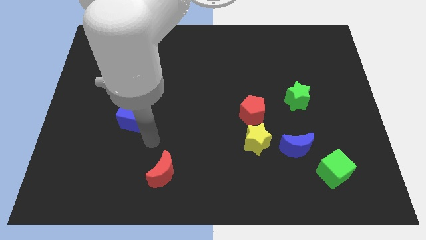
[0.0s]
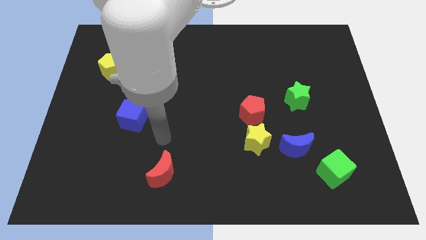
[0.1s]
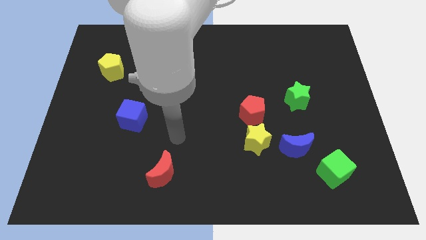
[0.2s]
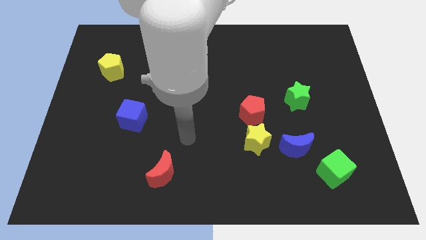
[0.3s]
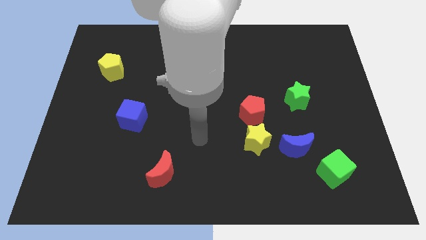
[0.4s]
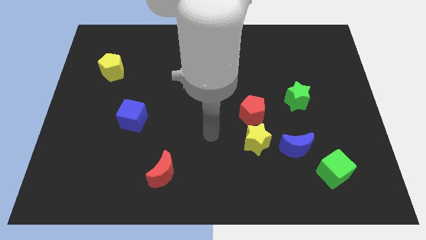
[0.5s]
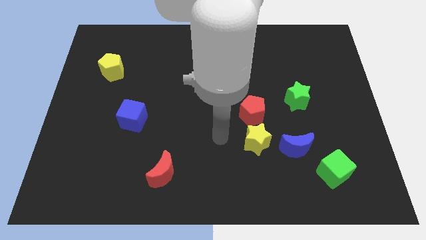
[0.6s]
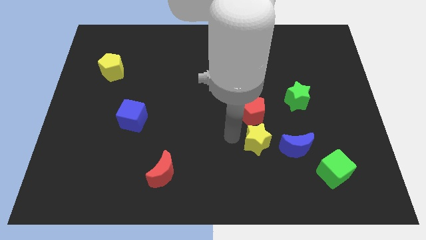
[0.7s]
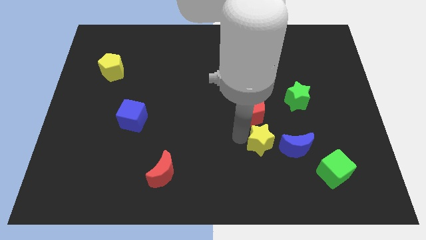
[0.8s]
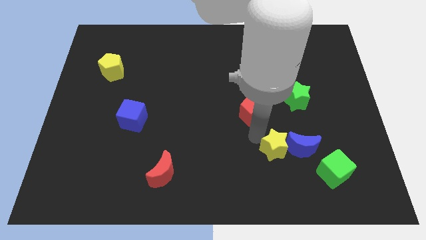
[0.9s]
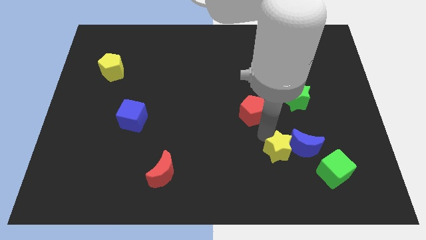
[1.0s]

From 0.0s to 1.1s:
move the red pentagon away from the yellow star

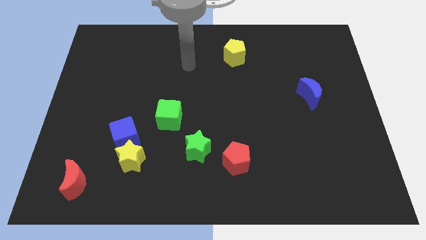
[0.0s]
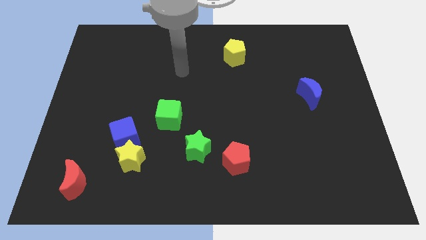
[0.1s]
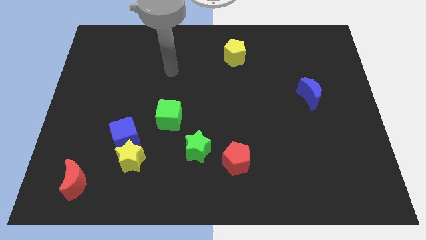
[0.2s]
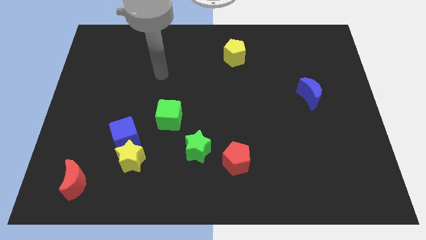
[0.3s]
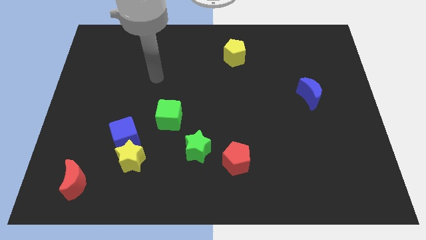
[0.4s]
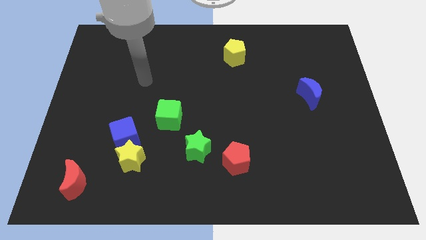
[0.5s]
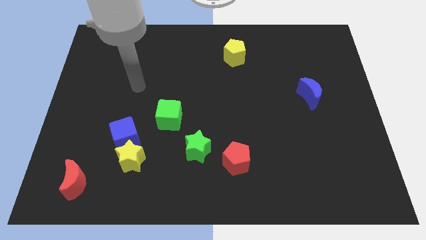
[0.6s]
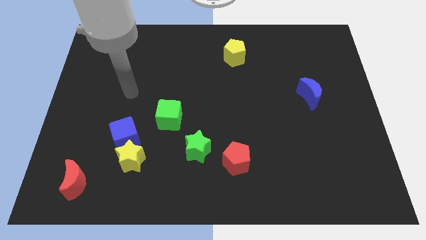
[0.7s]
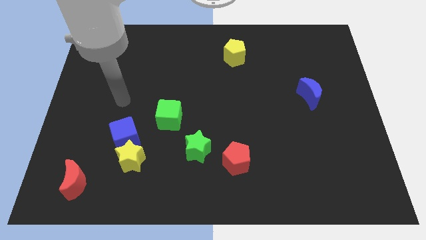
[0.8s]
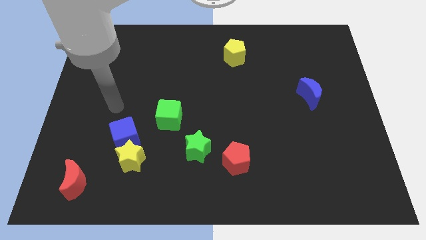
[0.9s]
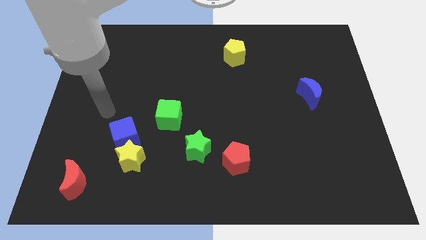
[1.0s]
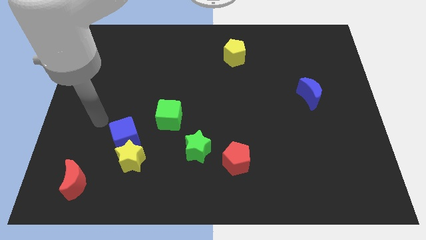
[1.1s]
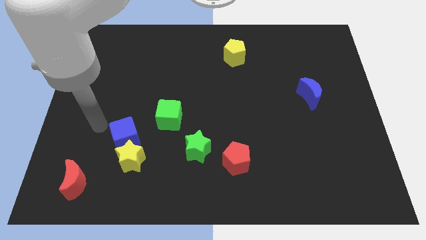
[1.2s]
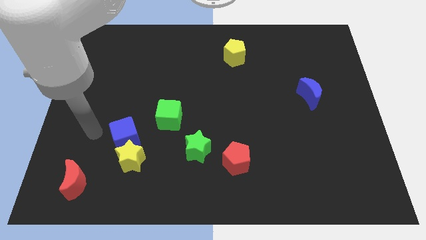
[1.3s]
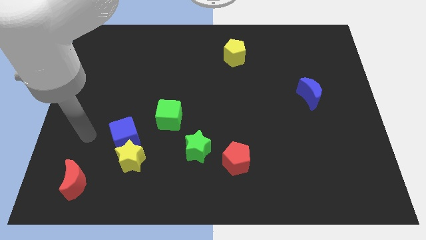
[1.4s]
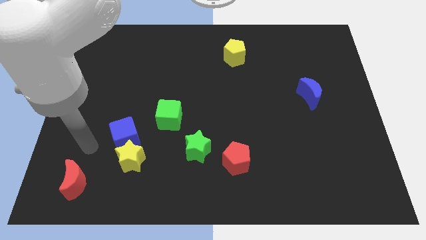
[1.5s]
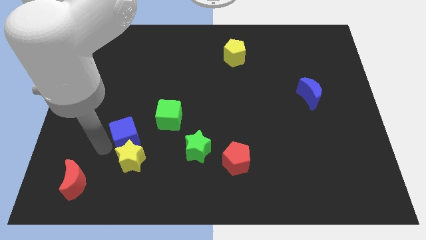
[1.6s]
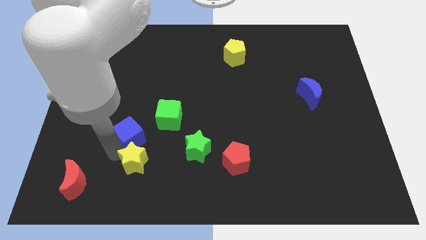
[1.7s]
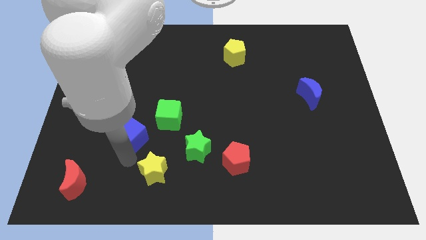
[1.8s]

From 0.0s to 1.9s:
pull the blue cube apart from the yellow star

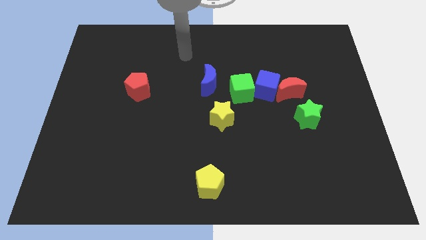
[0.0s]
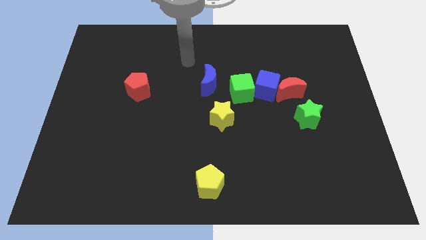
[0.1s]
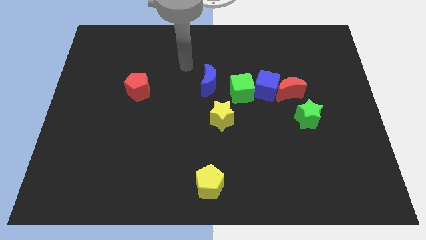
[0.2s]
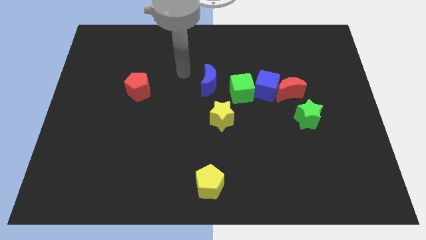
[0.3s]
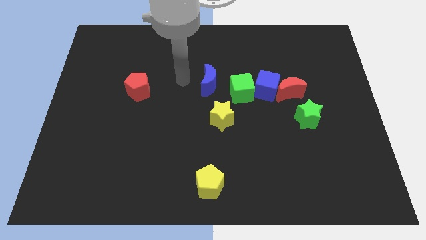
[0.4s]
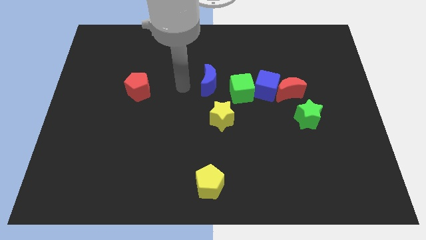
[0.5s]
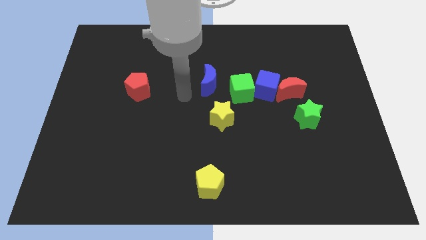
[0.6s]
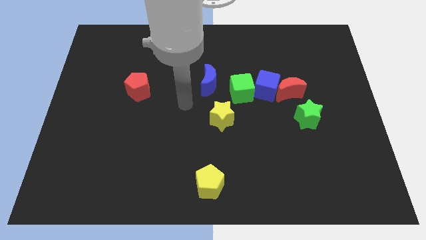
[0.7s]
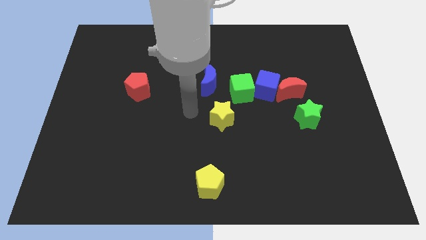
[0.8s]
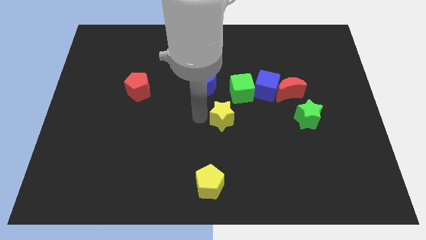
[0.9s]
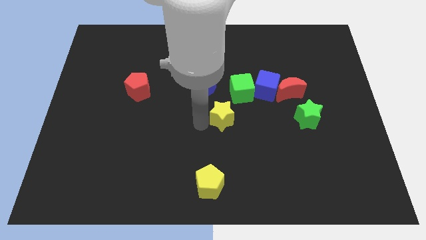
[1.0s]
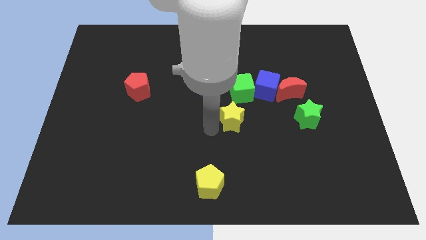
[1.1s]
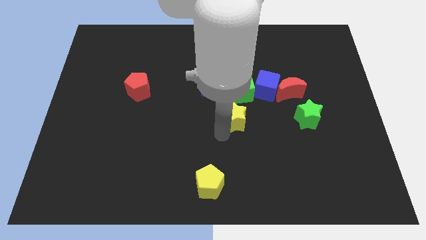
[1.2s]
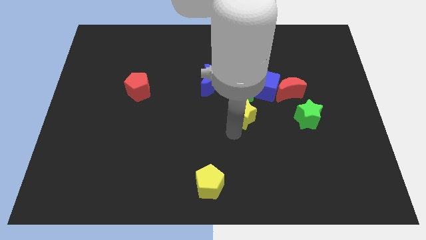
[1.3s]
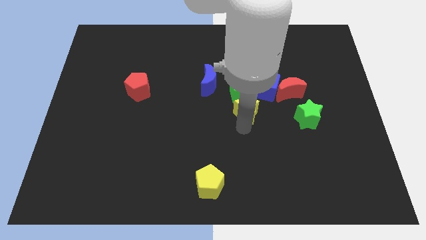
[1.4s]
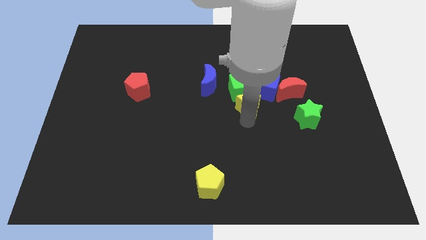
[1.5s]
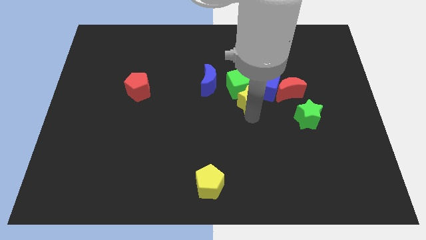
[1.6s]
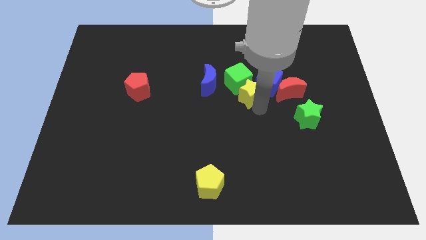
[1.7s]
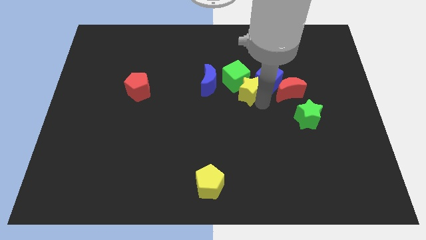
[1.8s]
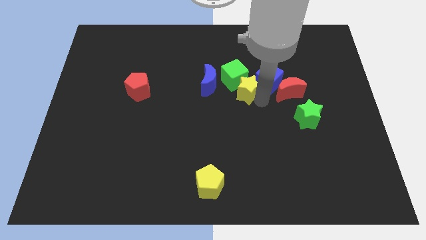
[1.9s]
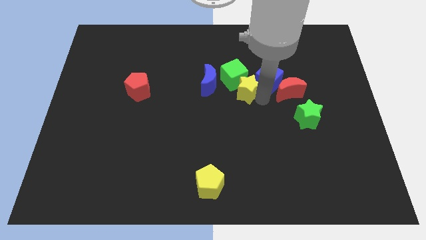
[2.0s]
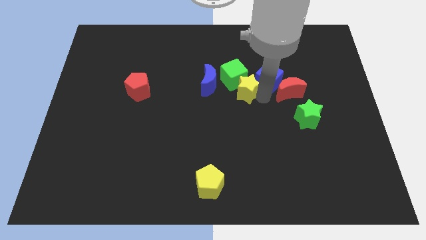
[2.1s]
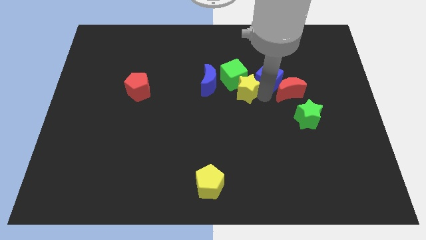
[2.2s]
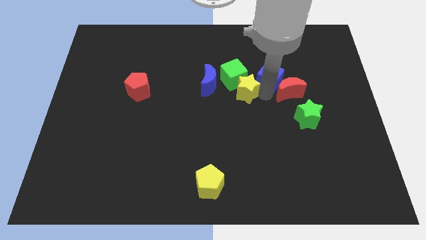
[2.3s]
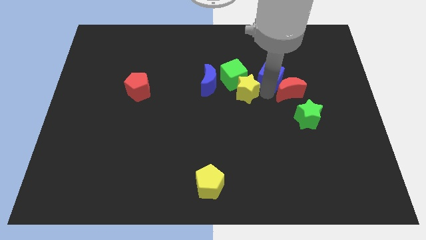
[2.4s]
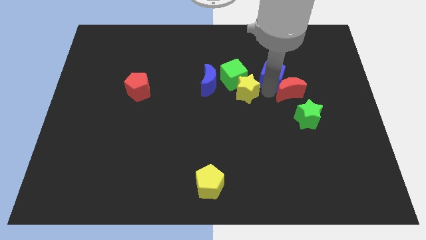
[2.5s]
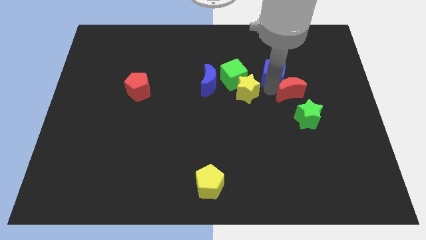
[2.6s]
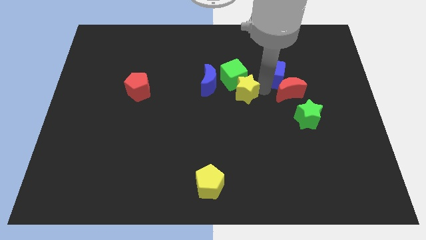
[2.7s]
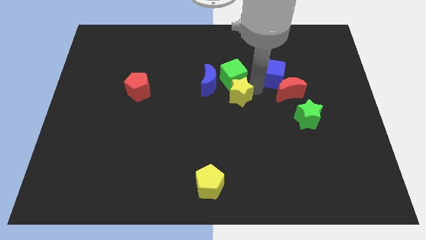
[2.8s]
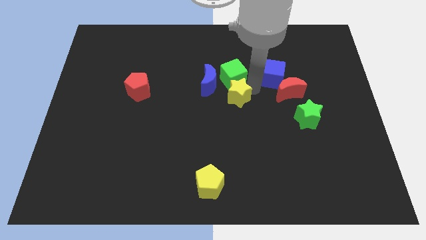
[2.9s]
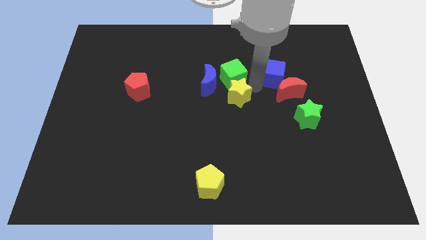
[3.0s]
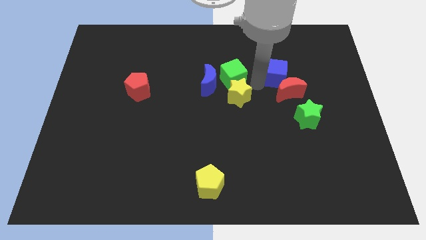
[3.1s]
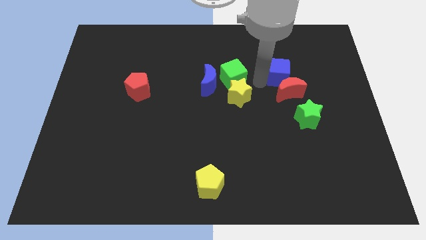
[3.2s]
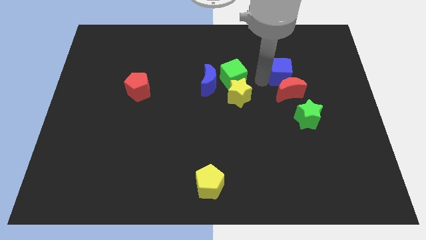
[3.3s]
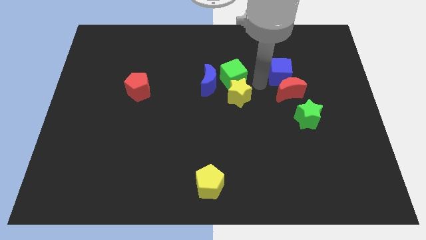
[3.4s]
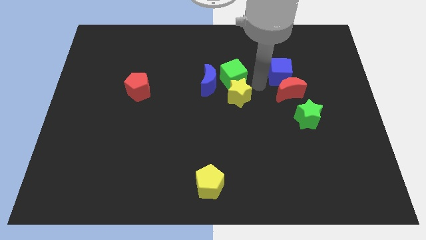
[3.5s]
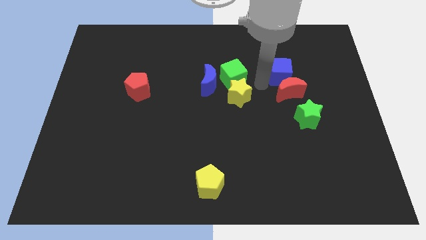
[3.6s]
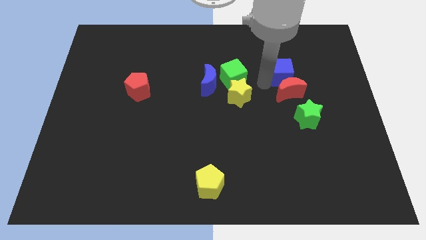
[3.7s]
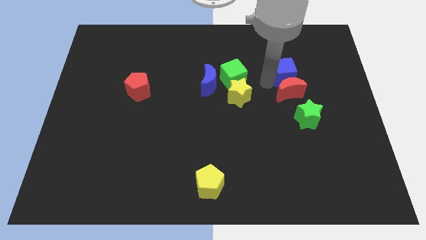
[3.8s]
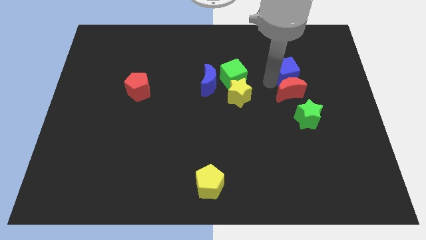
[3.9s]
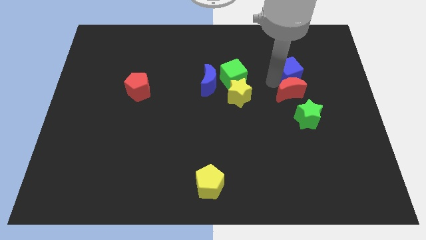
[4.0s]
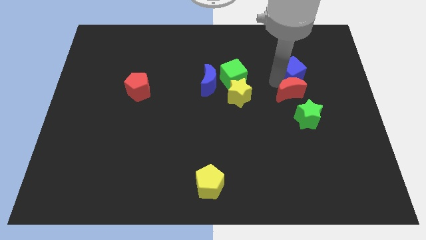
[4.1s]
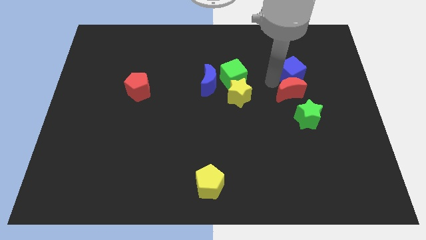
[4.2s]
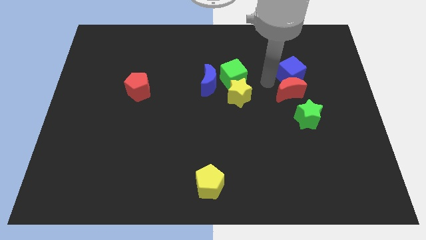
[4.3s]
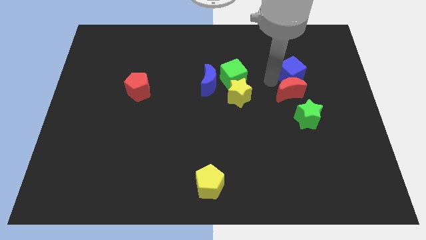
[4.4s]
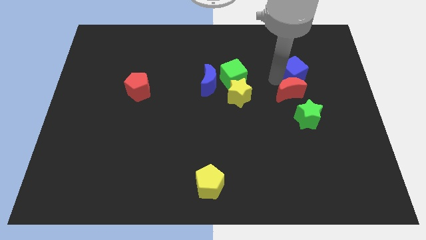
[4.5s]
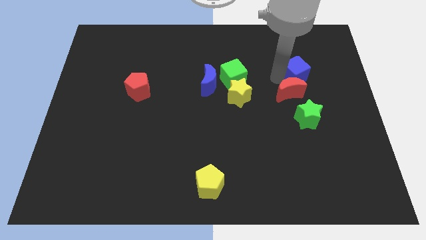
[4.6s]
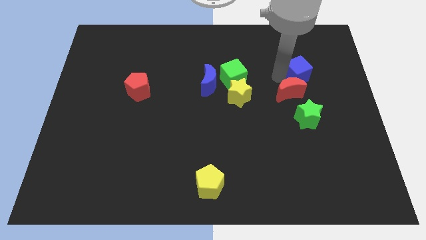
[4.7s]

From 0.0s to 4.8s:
move the blue cube away from the red moon and green cube

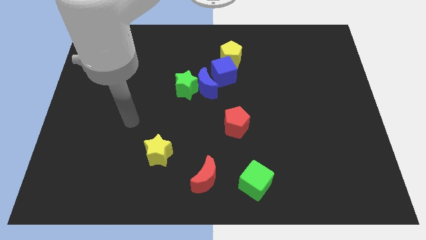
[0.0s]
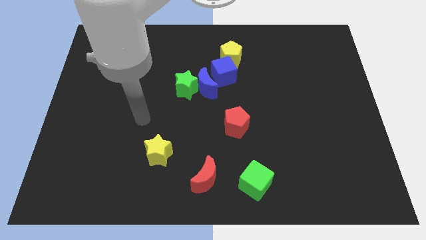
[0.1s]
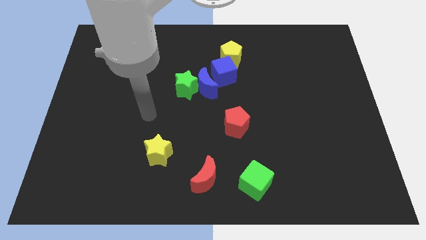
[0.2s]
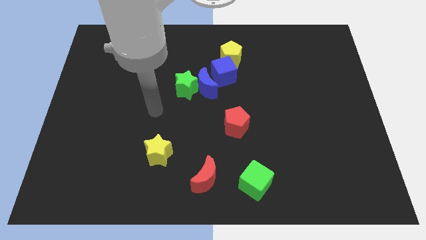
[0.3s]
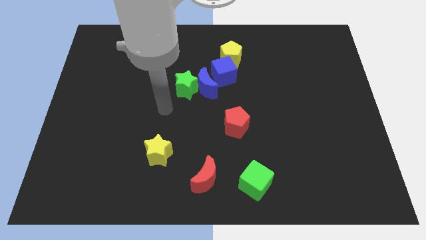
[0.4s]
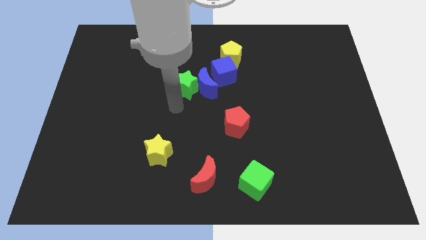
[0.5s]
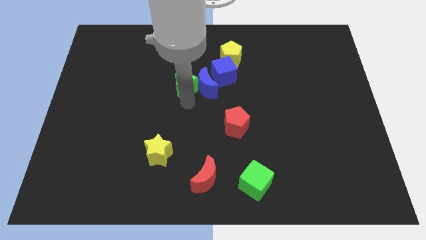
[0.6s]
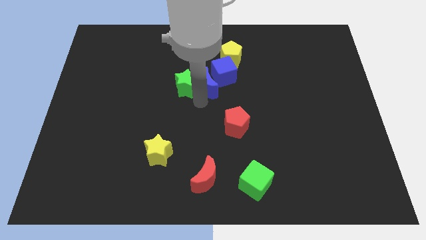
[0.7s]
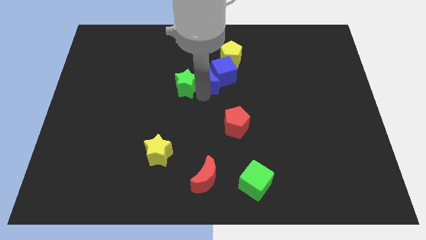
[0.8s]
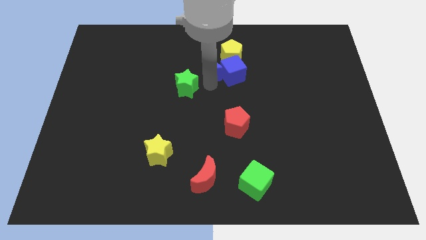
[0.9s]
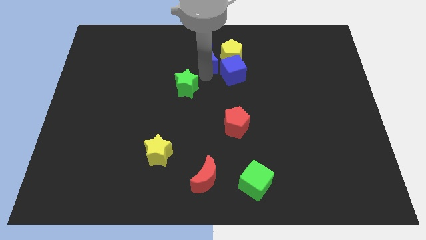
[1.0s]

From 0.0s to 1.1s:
pull the green star apart from the blue moon

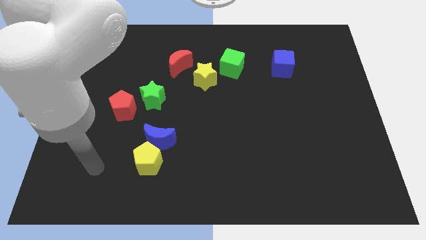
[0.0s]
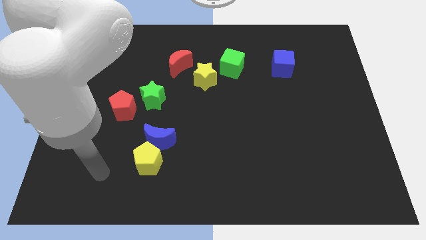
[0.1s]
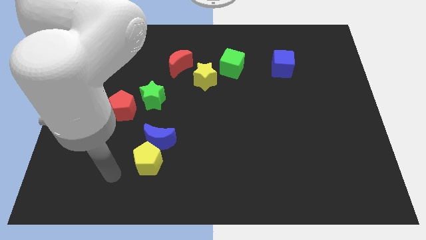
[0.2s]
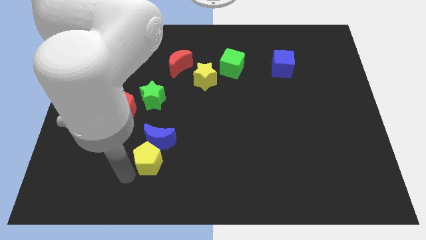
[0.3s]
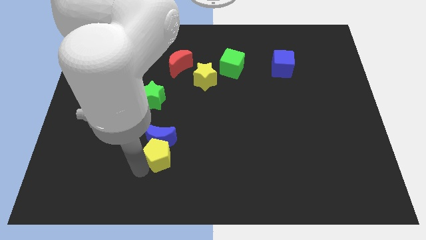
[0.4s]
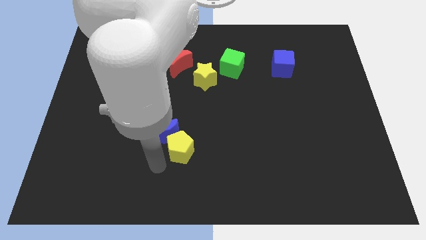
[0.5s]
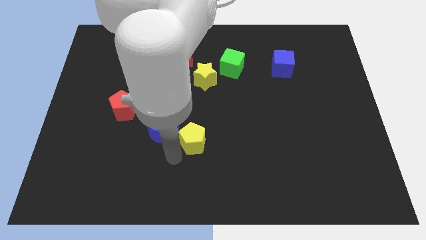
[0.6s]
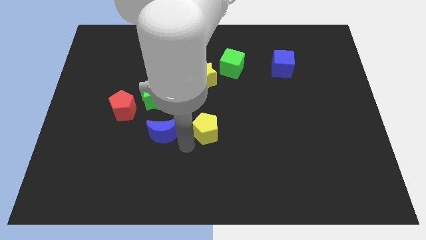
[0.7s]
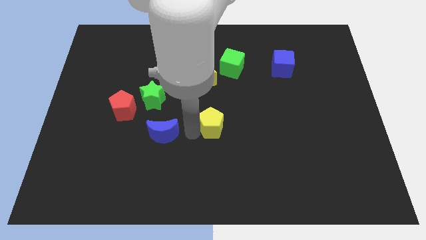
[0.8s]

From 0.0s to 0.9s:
pull the blue moon apart from the yellow pentagon
